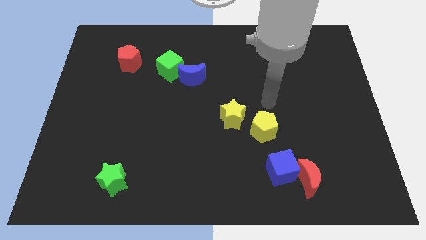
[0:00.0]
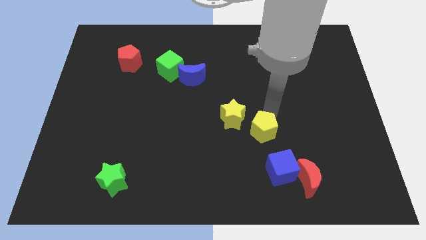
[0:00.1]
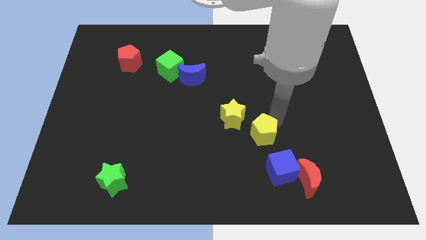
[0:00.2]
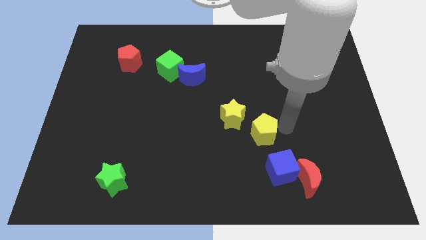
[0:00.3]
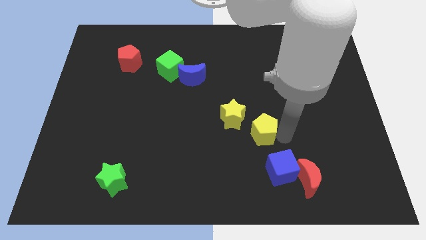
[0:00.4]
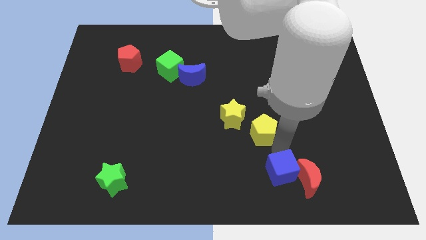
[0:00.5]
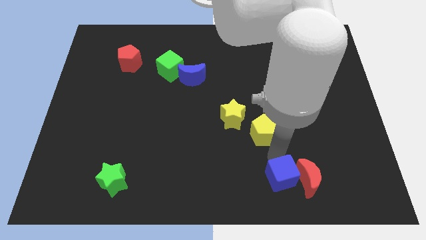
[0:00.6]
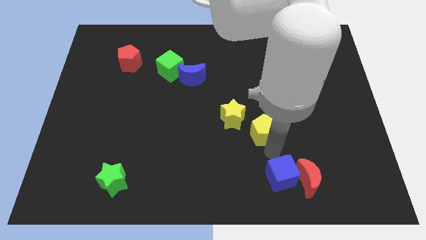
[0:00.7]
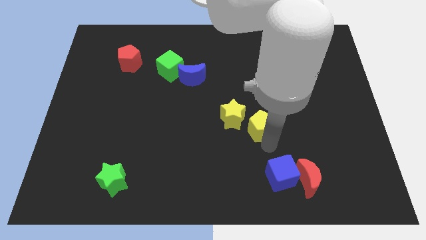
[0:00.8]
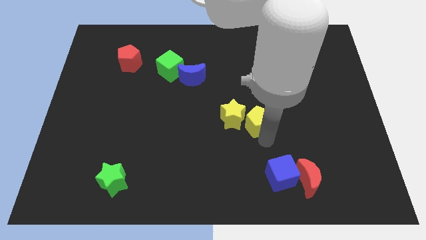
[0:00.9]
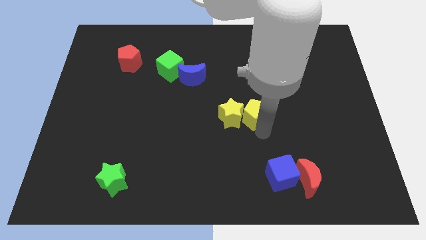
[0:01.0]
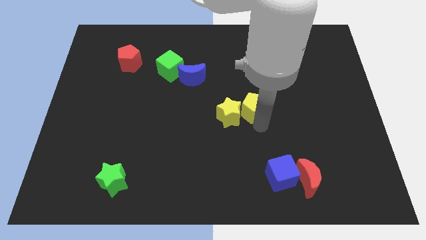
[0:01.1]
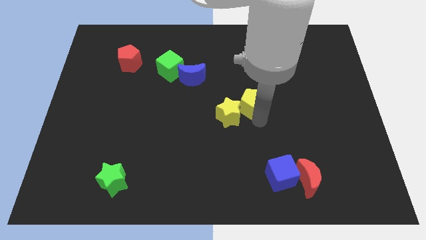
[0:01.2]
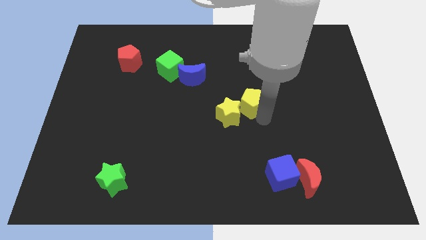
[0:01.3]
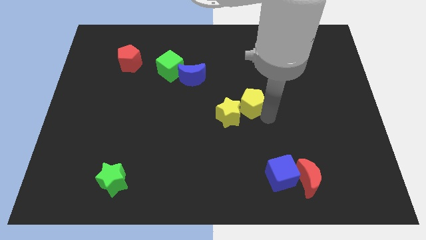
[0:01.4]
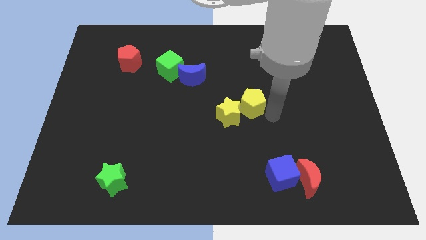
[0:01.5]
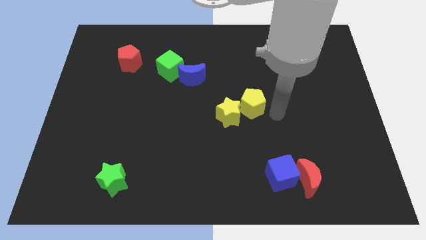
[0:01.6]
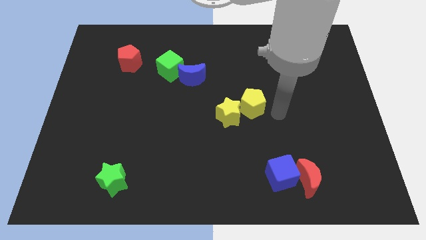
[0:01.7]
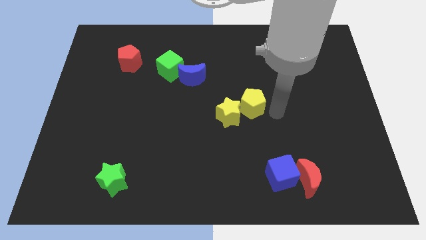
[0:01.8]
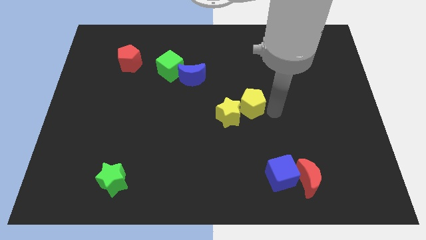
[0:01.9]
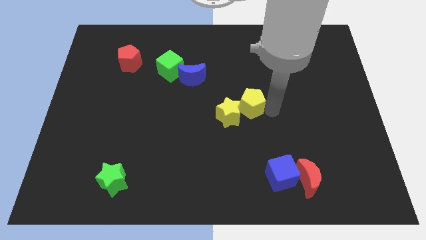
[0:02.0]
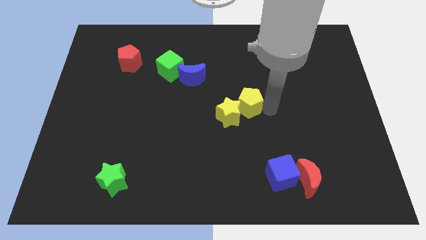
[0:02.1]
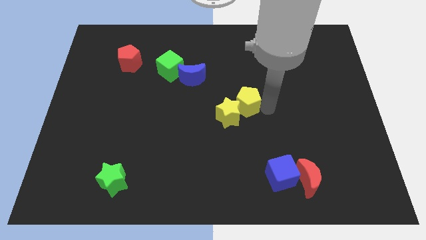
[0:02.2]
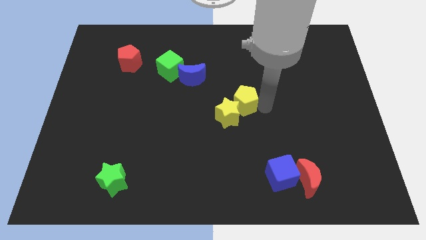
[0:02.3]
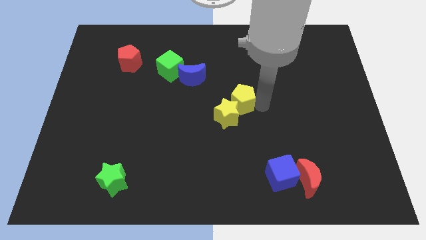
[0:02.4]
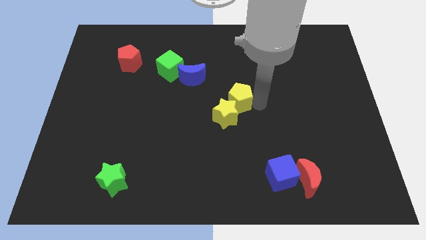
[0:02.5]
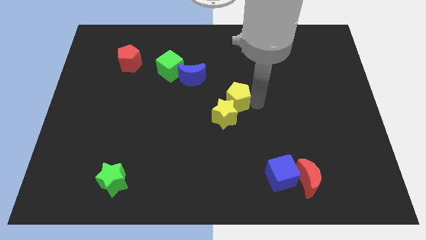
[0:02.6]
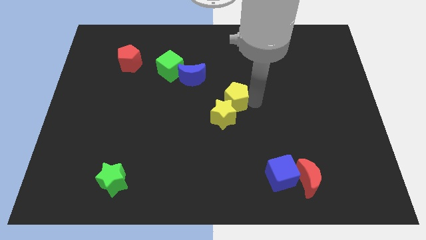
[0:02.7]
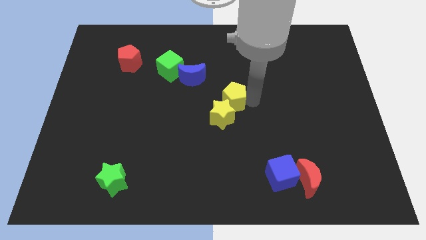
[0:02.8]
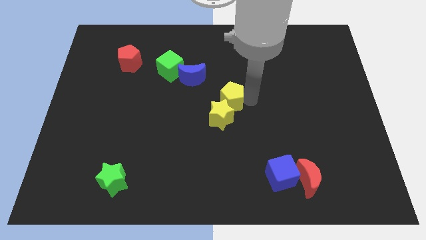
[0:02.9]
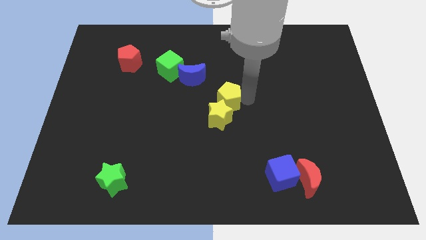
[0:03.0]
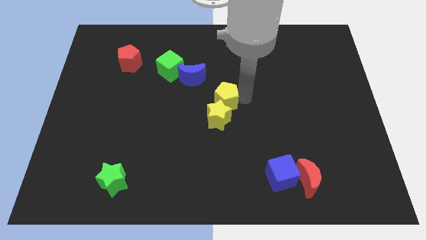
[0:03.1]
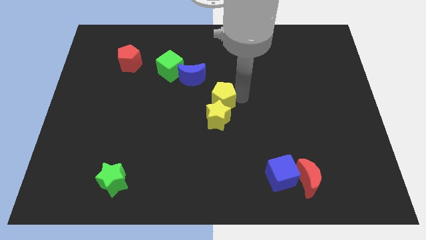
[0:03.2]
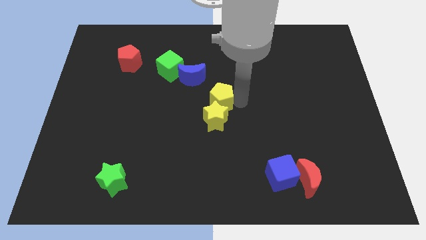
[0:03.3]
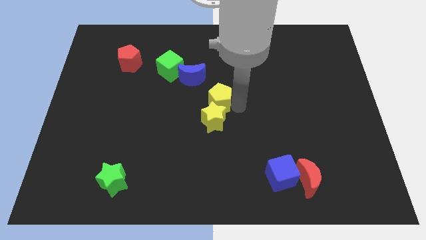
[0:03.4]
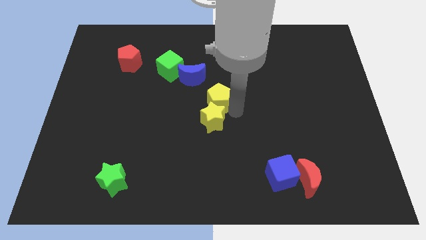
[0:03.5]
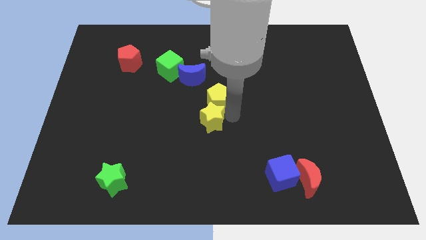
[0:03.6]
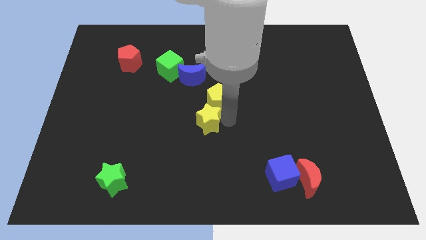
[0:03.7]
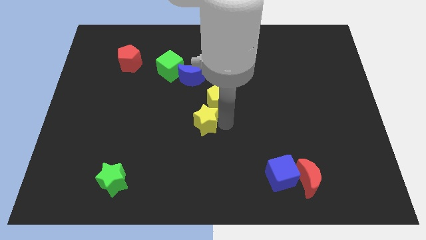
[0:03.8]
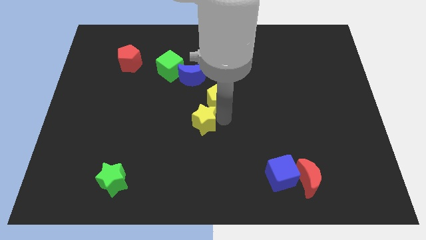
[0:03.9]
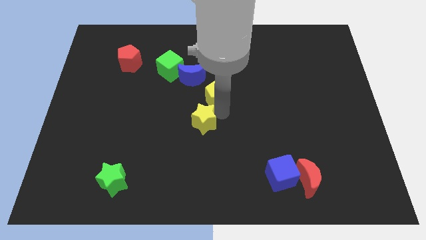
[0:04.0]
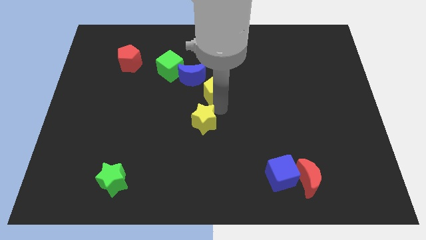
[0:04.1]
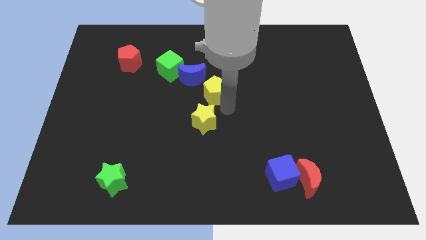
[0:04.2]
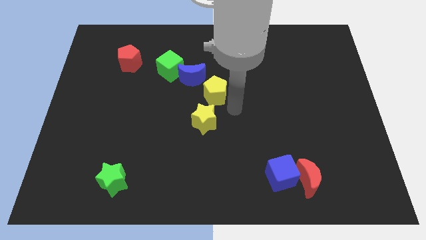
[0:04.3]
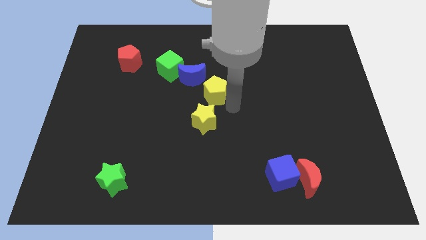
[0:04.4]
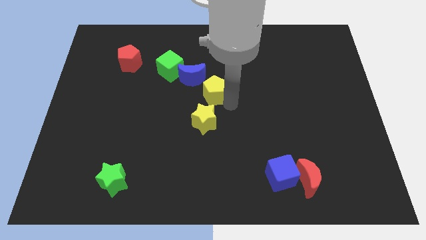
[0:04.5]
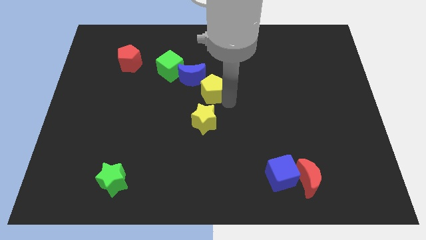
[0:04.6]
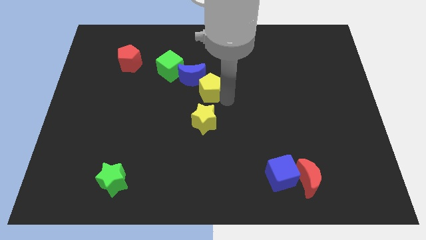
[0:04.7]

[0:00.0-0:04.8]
slide the yellow pentagon towards the blue moon

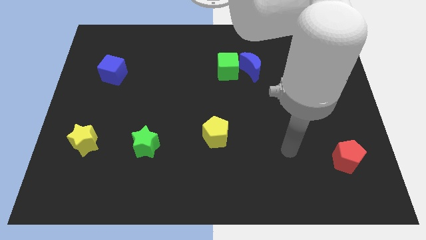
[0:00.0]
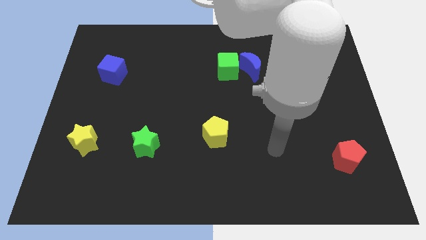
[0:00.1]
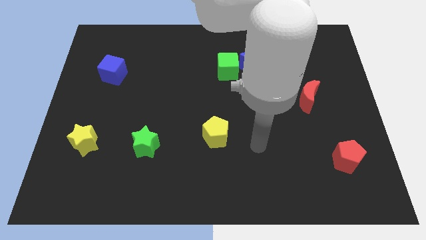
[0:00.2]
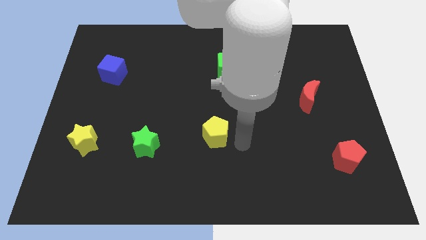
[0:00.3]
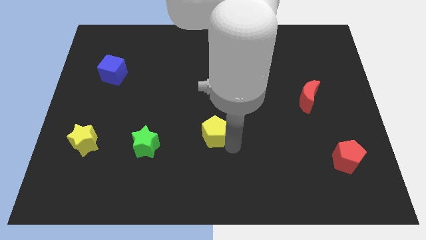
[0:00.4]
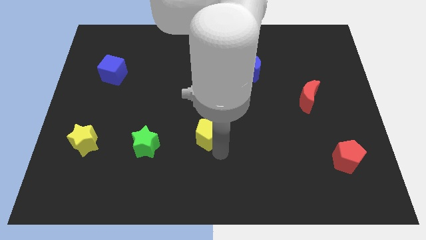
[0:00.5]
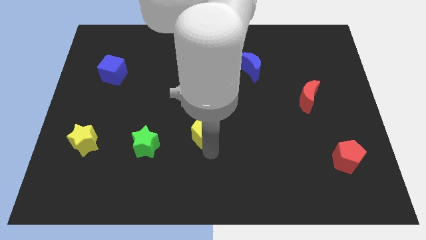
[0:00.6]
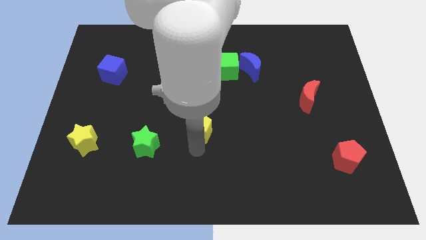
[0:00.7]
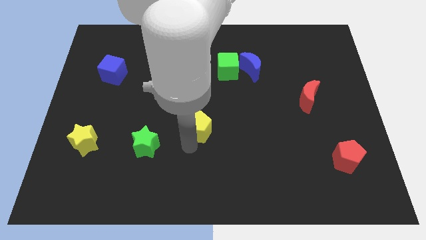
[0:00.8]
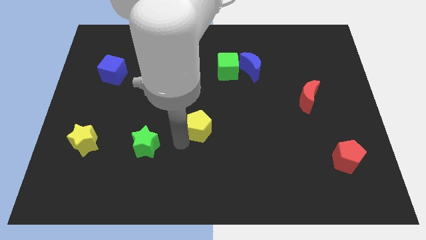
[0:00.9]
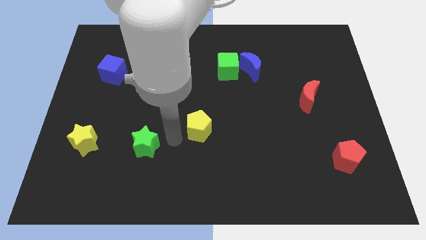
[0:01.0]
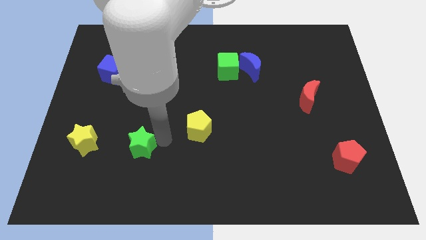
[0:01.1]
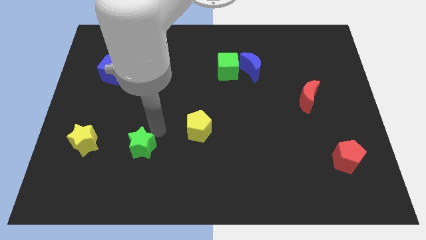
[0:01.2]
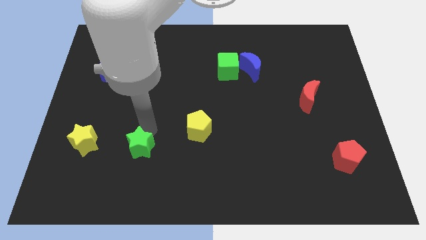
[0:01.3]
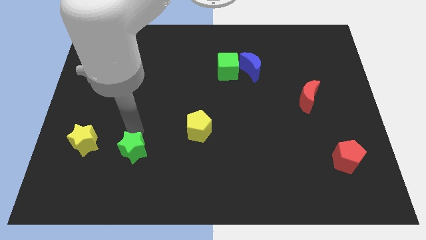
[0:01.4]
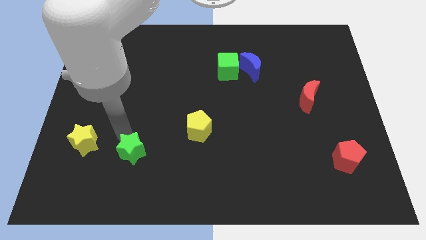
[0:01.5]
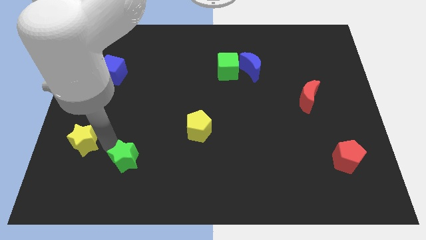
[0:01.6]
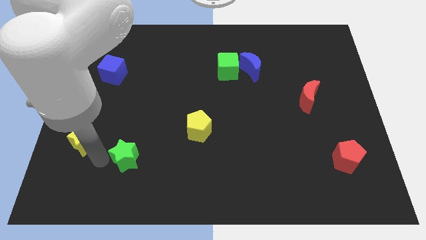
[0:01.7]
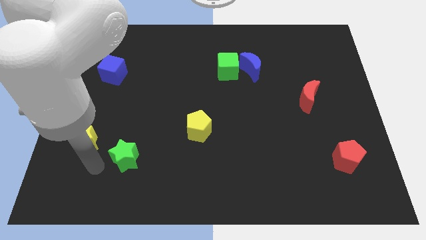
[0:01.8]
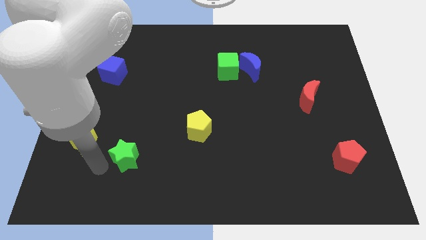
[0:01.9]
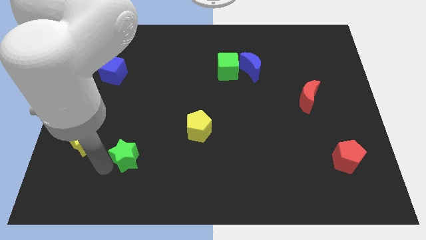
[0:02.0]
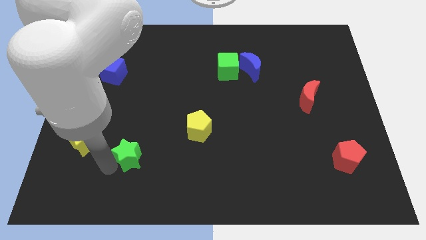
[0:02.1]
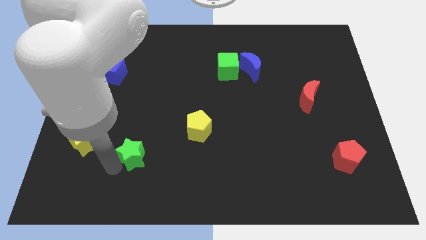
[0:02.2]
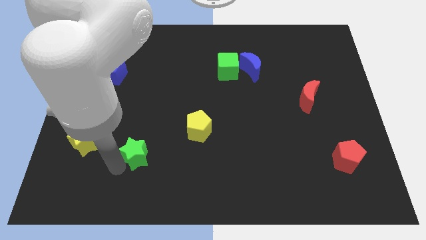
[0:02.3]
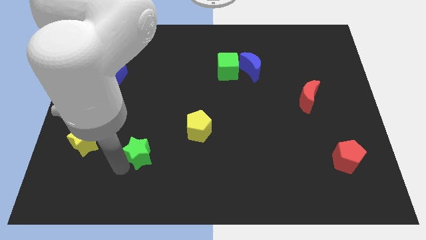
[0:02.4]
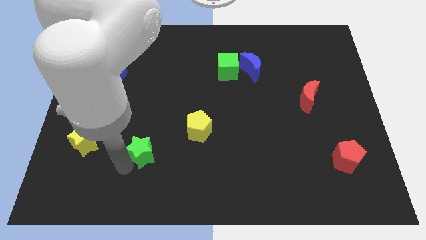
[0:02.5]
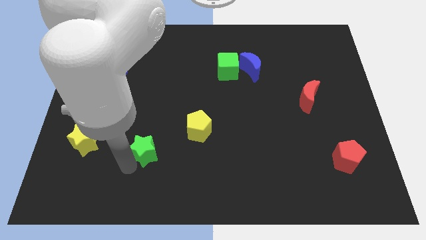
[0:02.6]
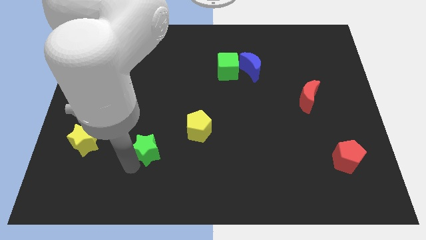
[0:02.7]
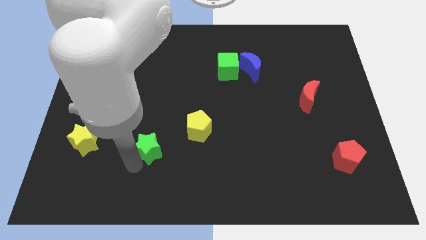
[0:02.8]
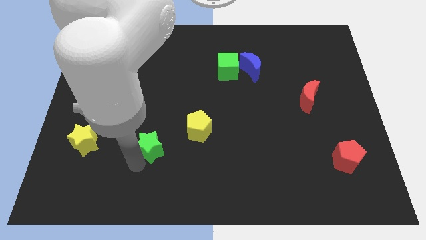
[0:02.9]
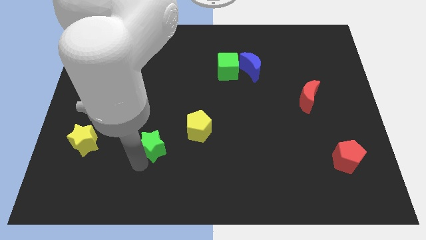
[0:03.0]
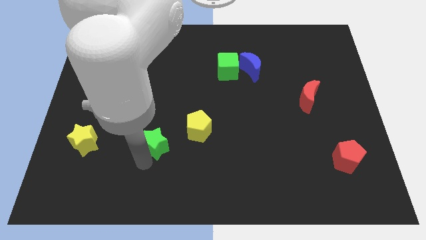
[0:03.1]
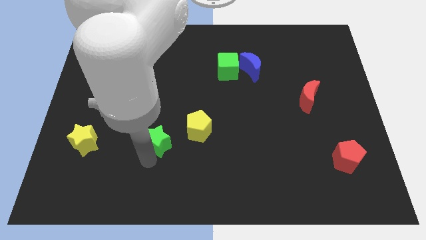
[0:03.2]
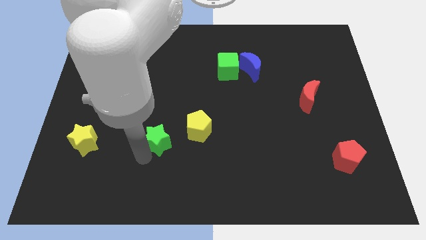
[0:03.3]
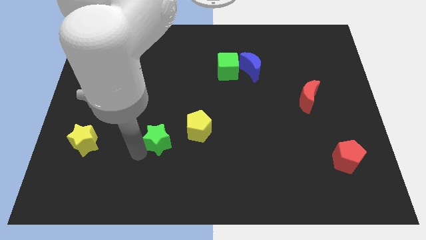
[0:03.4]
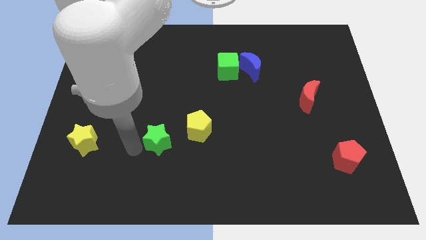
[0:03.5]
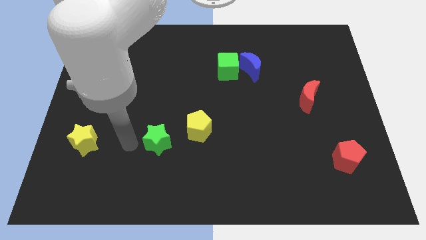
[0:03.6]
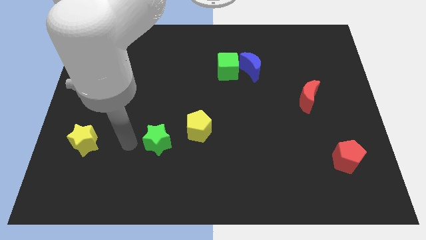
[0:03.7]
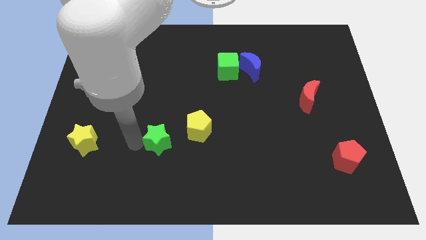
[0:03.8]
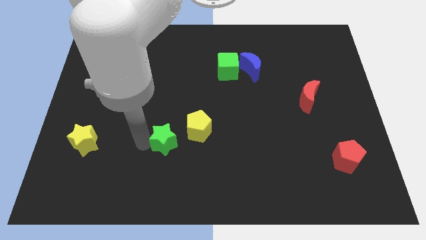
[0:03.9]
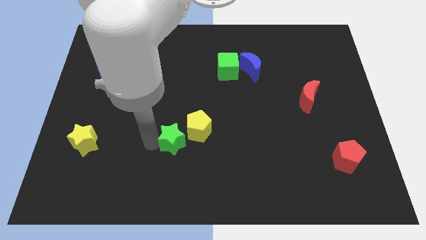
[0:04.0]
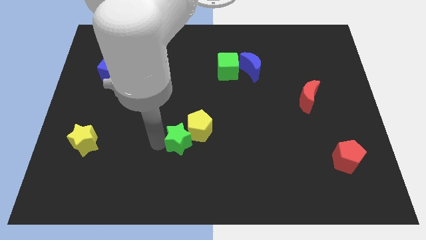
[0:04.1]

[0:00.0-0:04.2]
move the green star to the yellow pentagon
